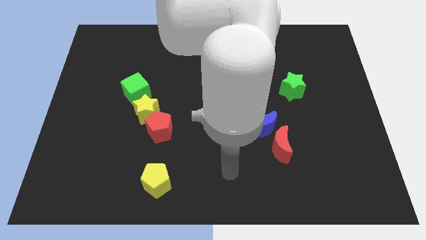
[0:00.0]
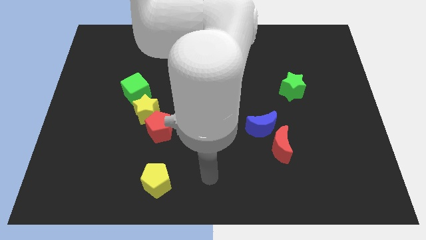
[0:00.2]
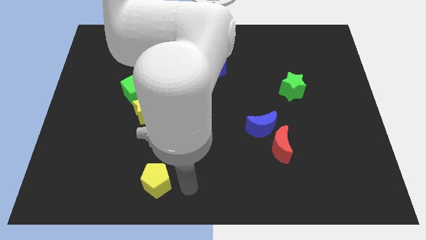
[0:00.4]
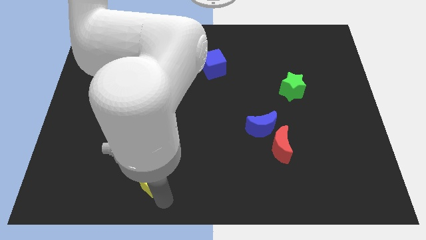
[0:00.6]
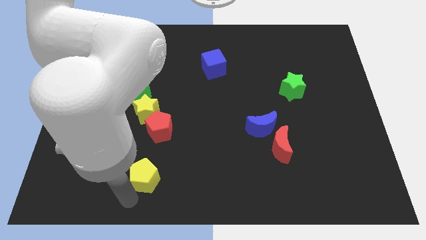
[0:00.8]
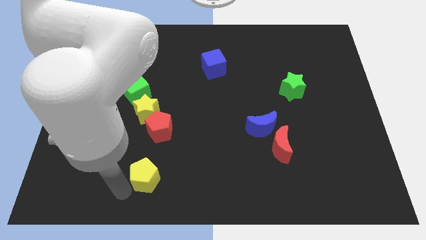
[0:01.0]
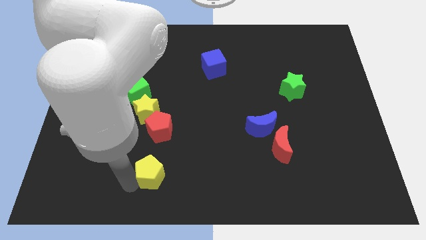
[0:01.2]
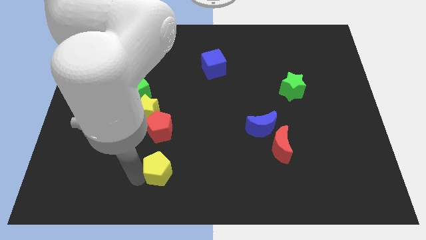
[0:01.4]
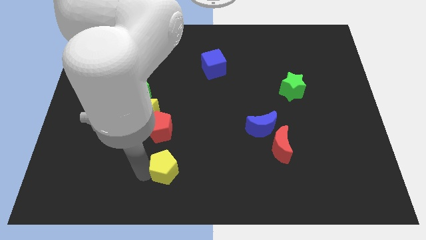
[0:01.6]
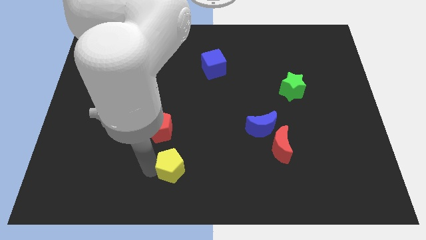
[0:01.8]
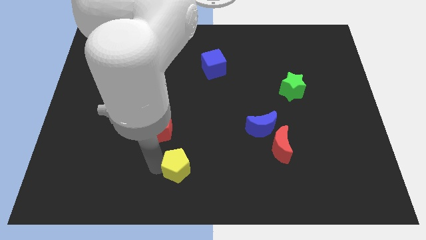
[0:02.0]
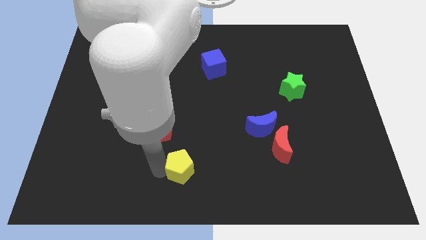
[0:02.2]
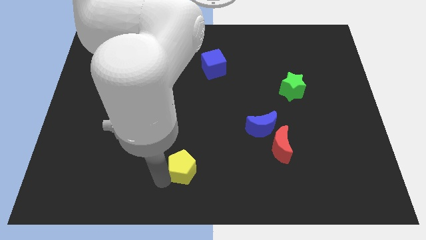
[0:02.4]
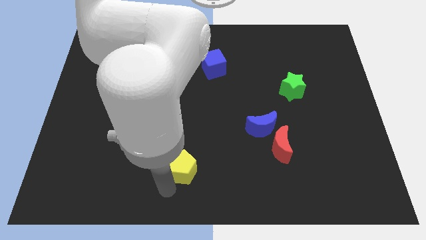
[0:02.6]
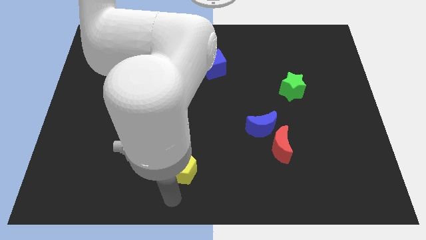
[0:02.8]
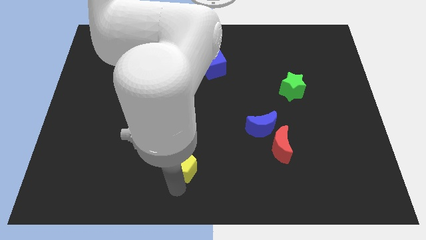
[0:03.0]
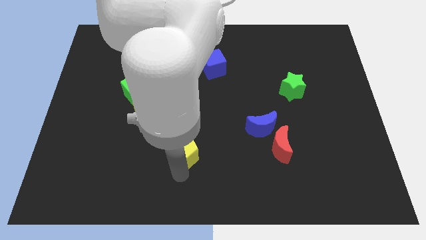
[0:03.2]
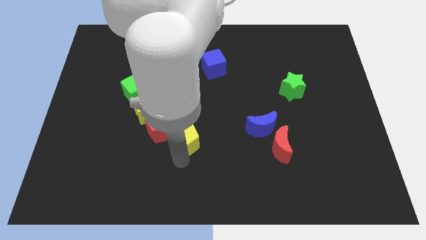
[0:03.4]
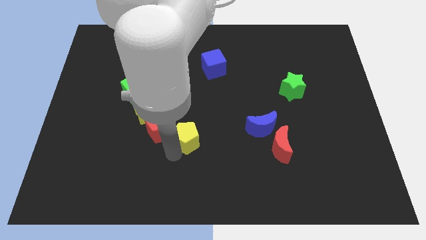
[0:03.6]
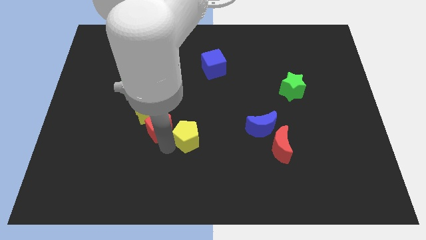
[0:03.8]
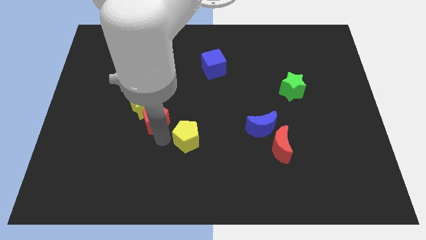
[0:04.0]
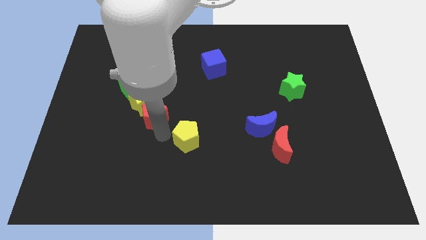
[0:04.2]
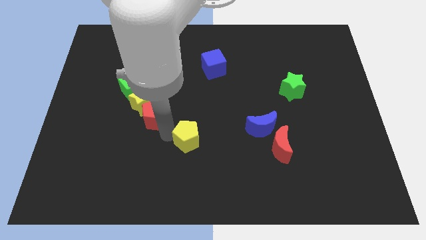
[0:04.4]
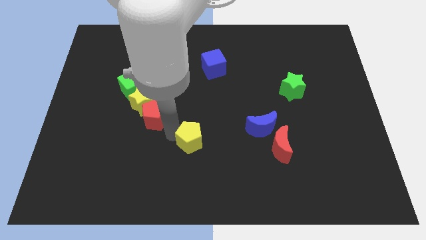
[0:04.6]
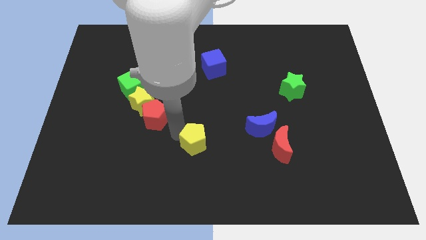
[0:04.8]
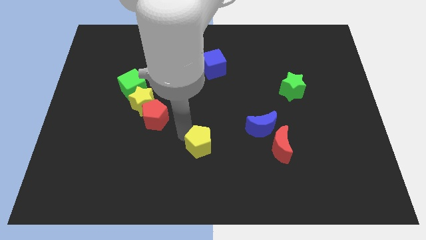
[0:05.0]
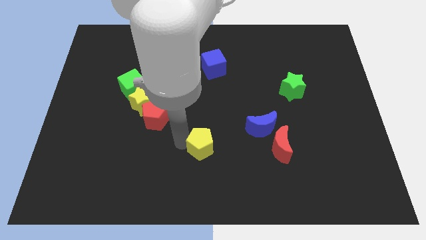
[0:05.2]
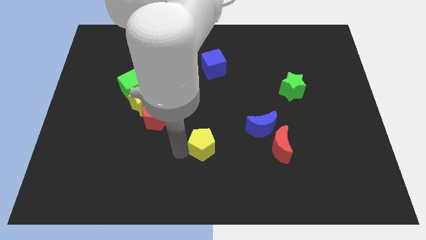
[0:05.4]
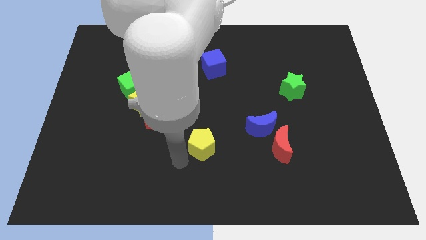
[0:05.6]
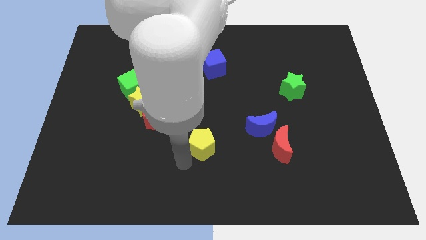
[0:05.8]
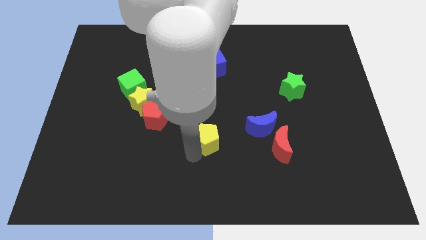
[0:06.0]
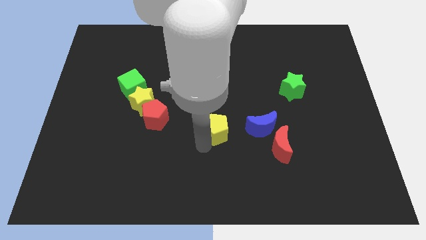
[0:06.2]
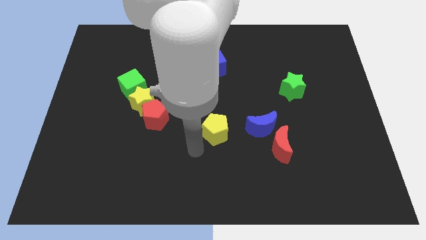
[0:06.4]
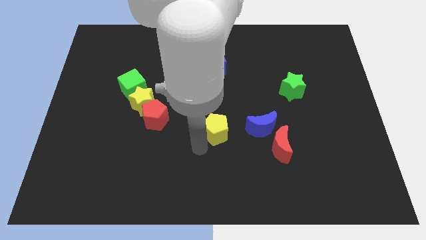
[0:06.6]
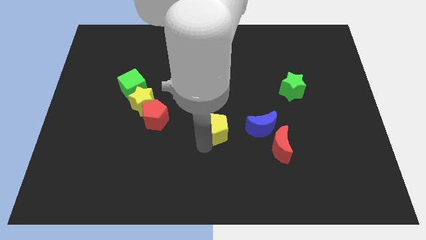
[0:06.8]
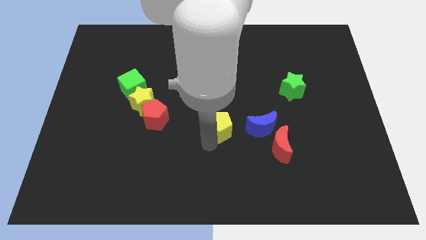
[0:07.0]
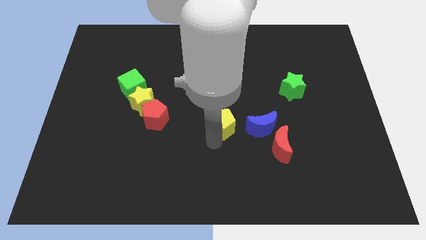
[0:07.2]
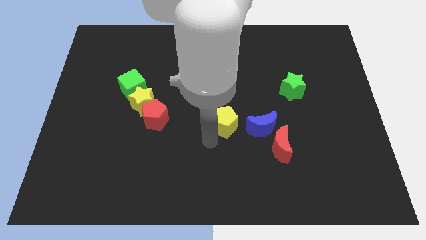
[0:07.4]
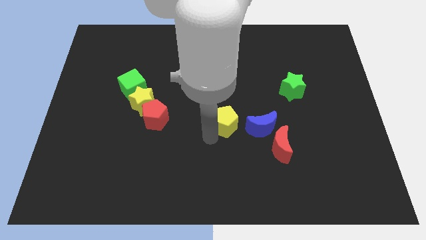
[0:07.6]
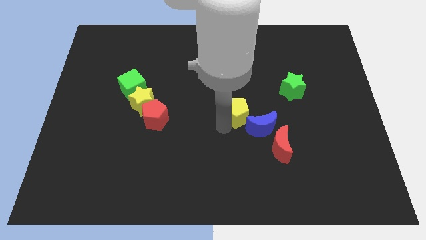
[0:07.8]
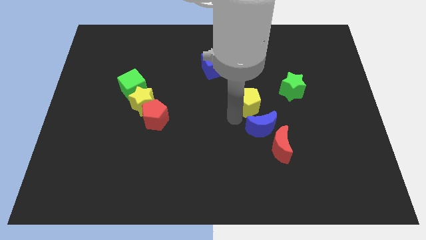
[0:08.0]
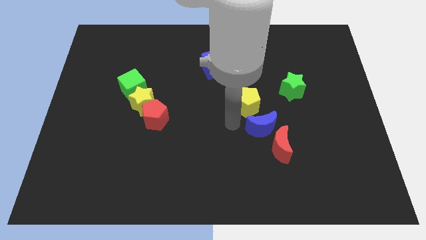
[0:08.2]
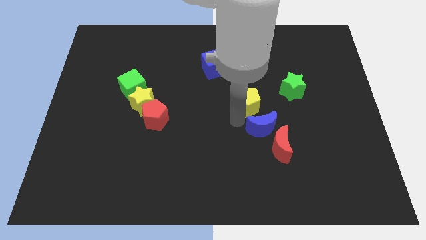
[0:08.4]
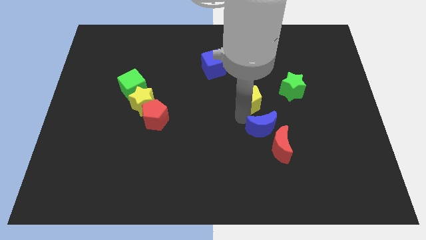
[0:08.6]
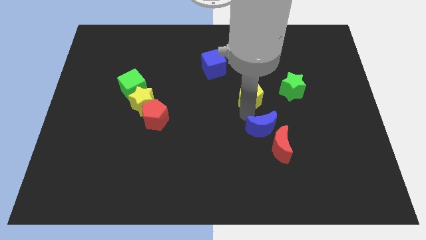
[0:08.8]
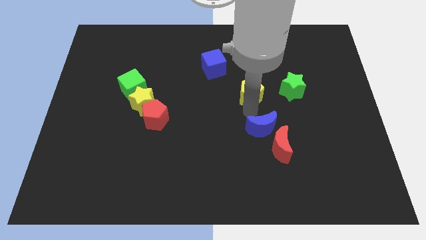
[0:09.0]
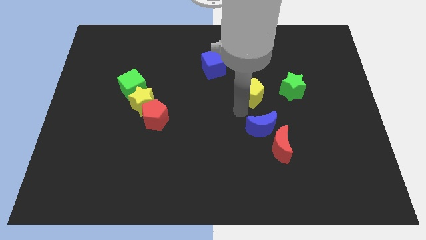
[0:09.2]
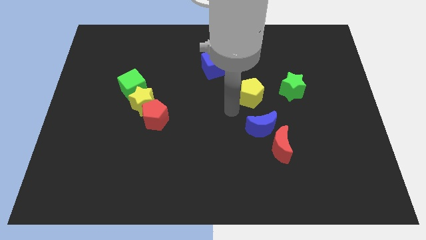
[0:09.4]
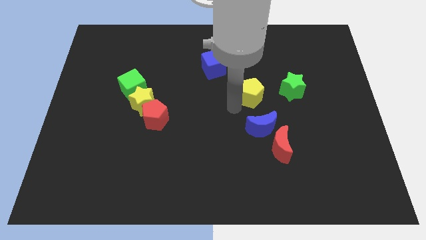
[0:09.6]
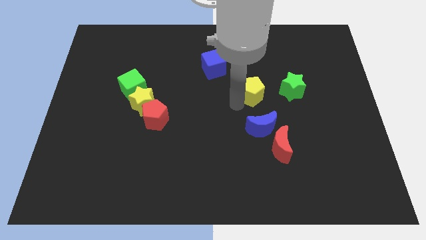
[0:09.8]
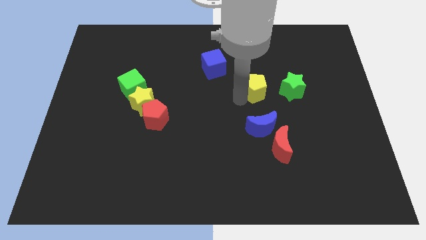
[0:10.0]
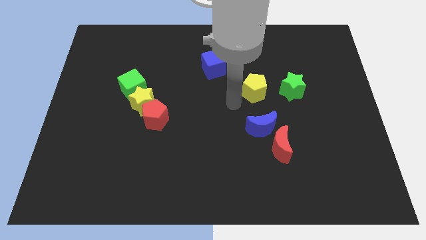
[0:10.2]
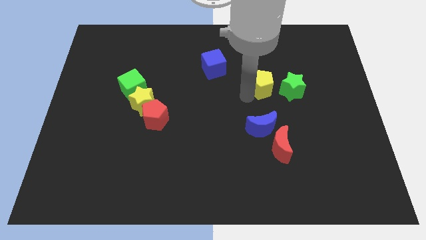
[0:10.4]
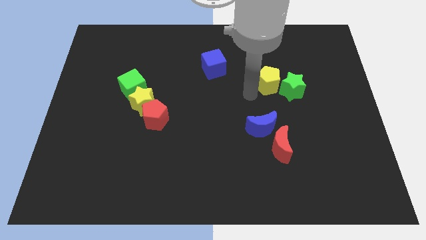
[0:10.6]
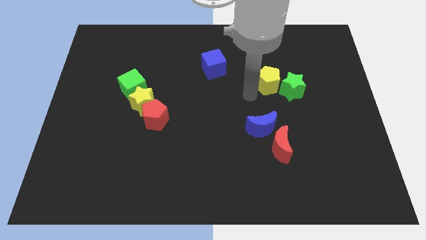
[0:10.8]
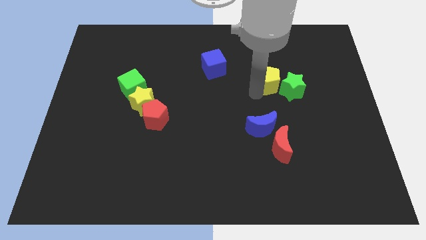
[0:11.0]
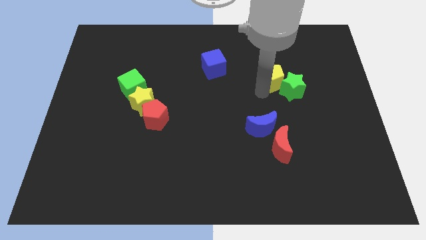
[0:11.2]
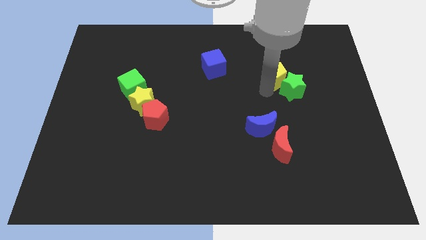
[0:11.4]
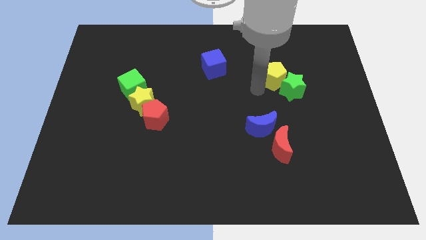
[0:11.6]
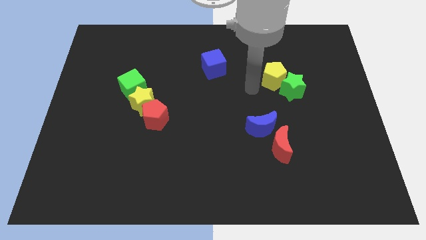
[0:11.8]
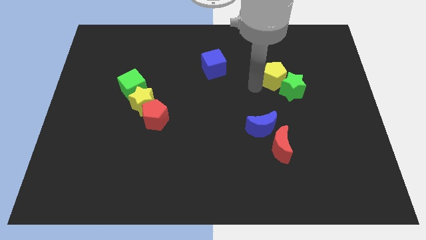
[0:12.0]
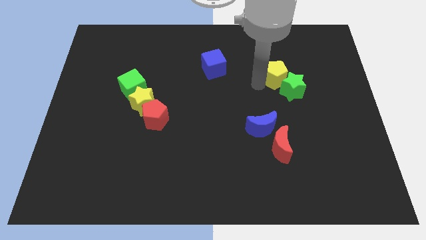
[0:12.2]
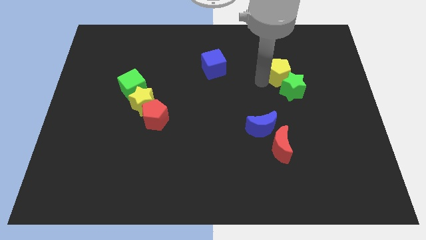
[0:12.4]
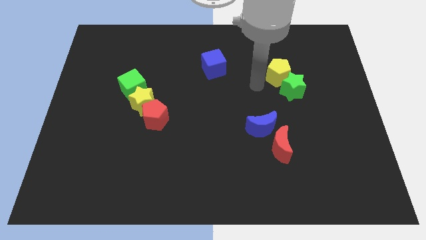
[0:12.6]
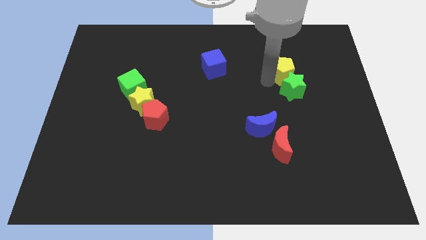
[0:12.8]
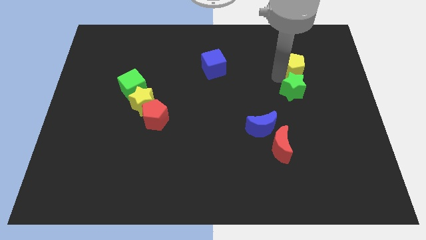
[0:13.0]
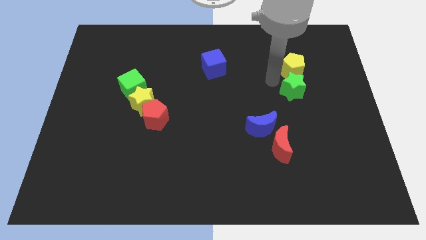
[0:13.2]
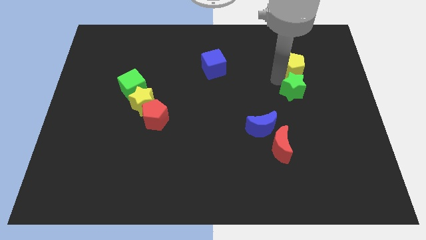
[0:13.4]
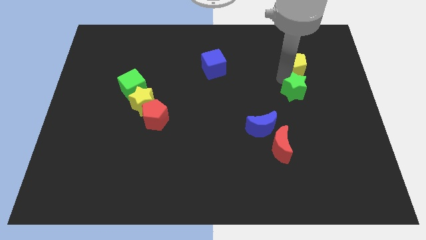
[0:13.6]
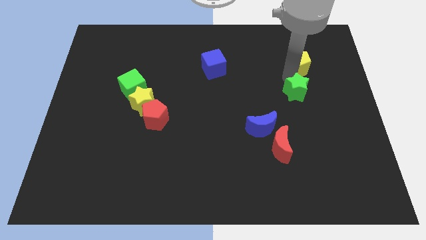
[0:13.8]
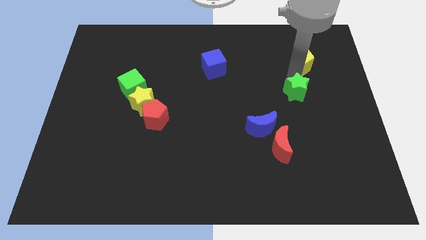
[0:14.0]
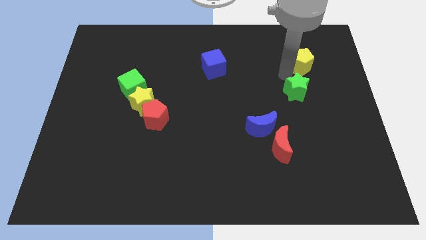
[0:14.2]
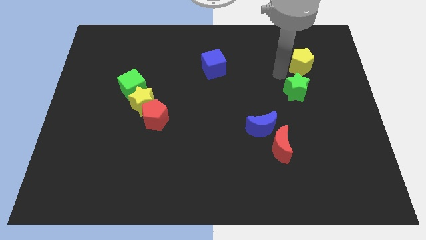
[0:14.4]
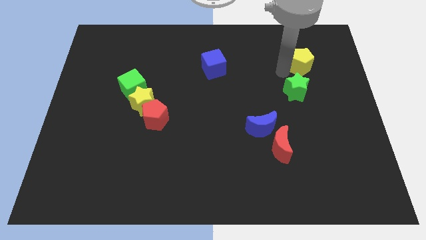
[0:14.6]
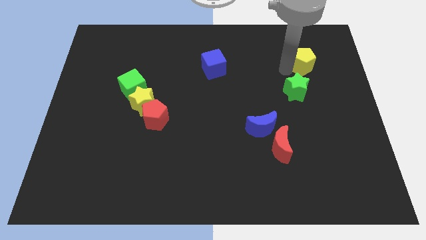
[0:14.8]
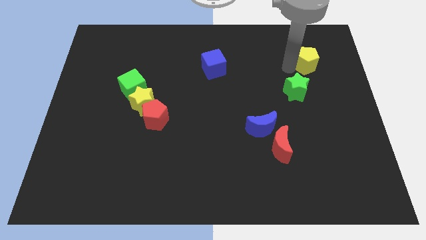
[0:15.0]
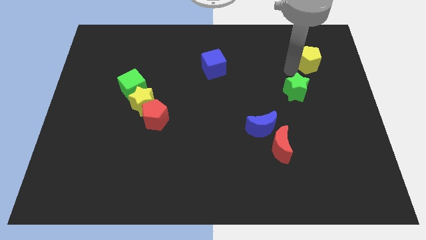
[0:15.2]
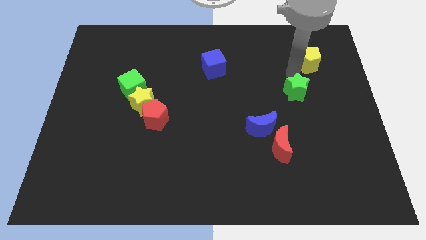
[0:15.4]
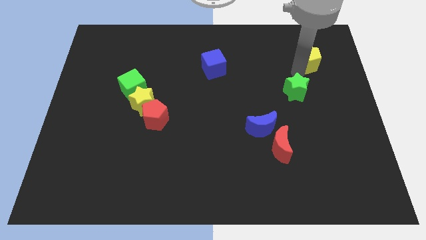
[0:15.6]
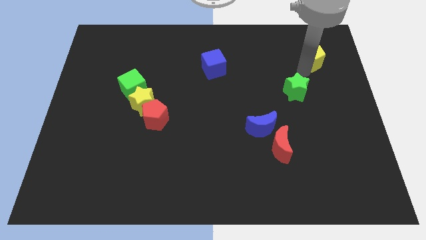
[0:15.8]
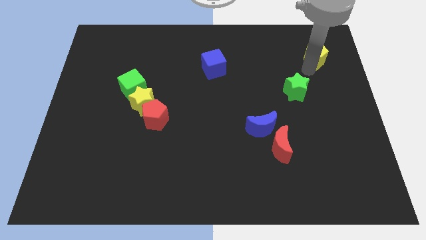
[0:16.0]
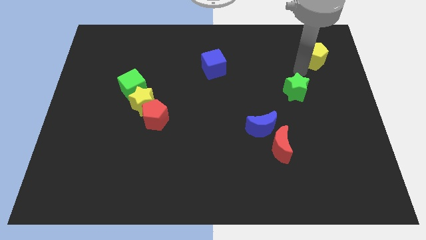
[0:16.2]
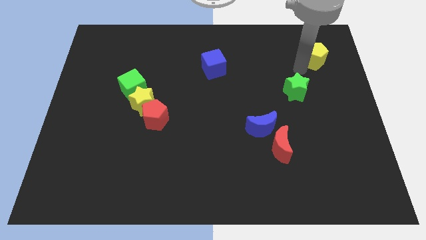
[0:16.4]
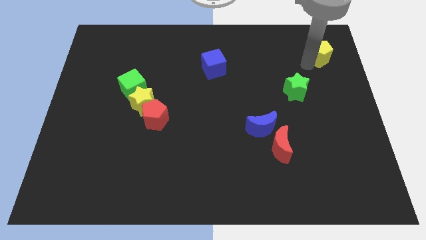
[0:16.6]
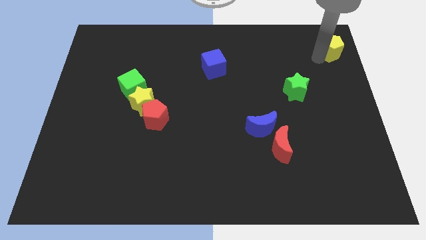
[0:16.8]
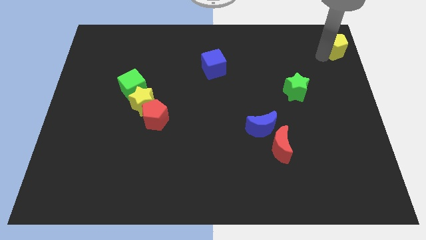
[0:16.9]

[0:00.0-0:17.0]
put the yellow pentagon to the top right corner
